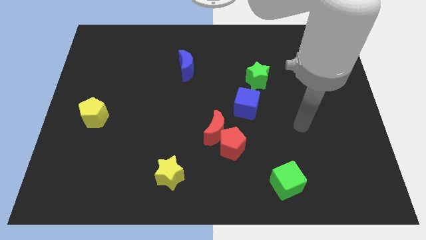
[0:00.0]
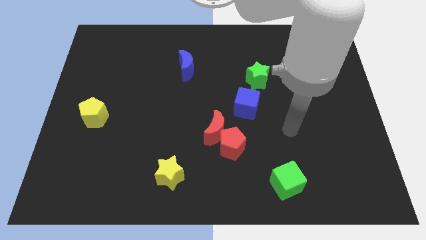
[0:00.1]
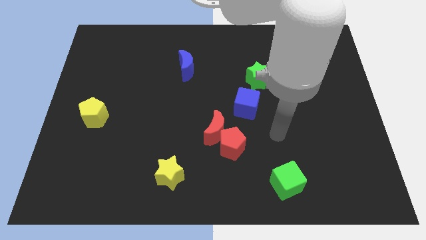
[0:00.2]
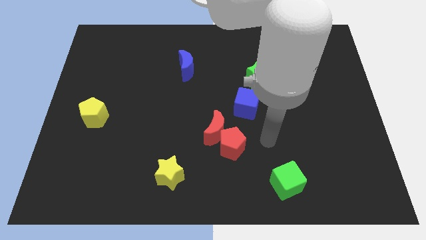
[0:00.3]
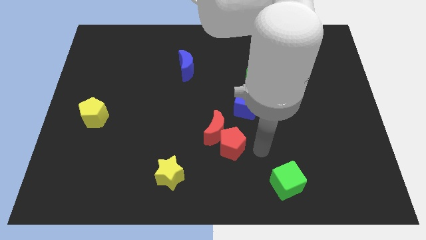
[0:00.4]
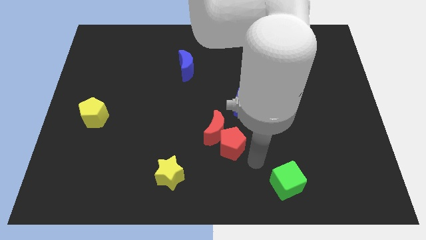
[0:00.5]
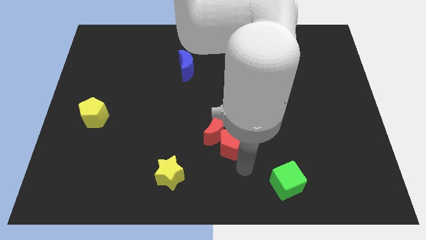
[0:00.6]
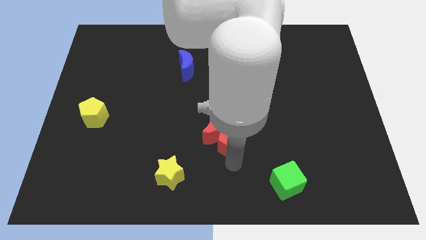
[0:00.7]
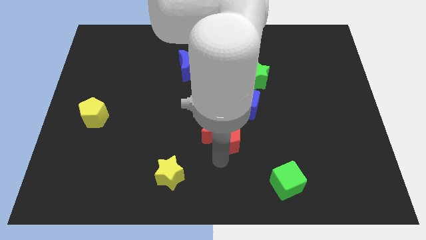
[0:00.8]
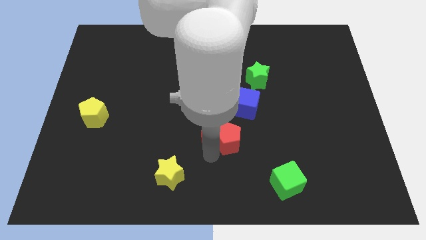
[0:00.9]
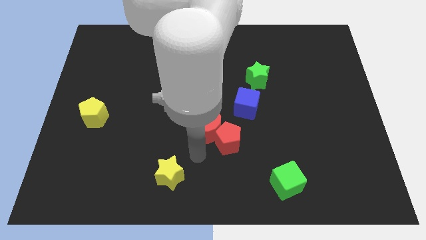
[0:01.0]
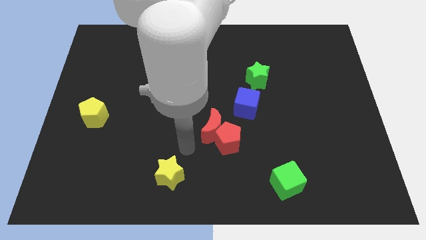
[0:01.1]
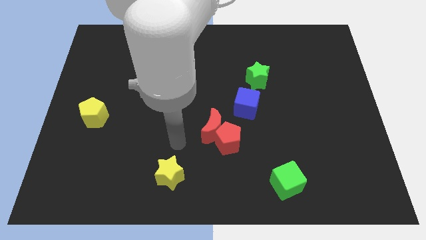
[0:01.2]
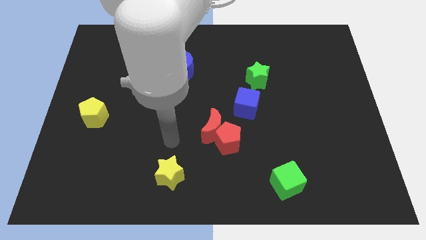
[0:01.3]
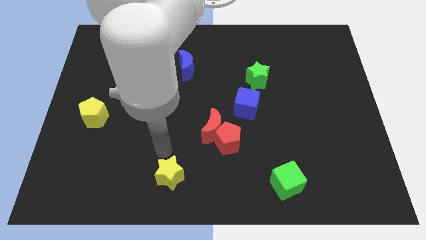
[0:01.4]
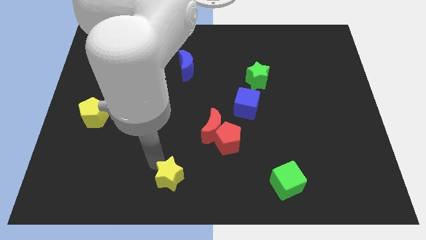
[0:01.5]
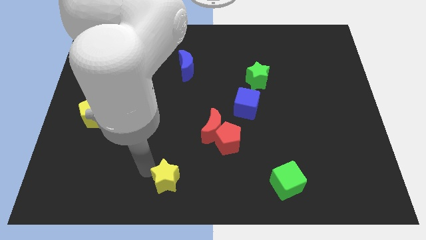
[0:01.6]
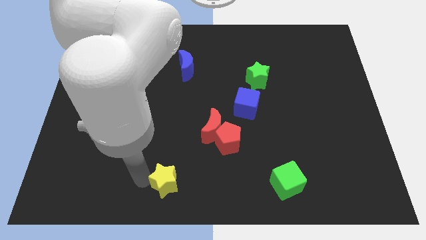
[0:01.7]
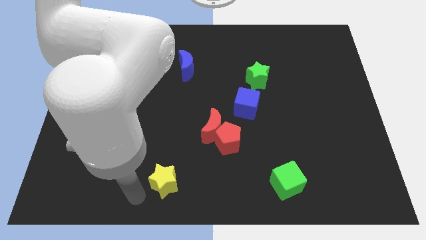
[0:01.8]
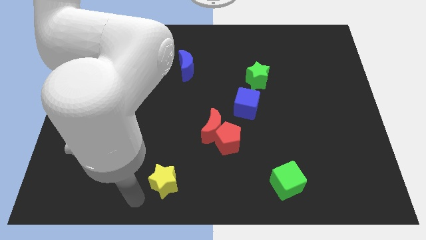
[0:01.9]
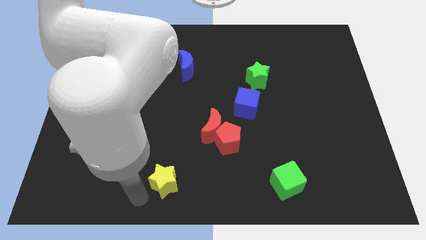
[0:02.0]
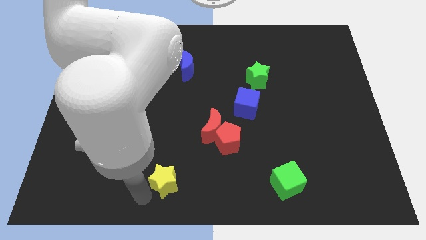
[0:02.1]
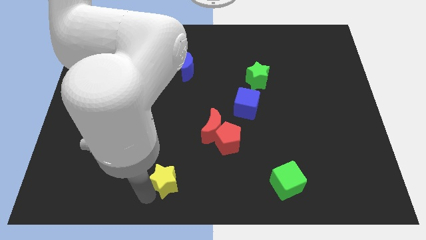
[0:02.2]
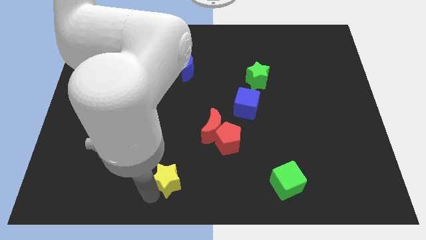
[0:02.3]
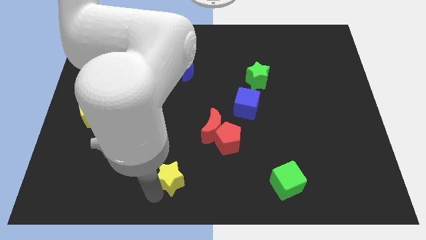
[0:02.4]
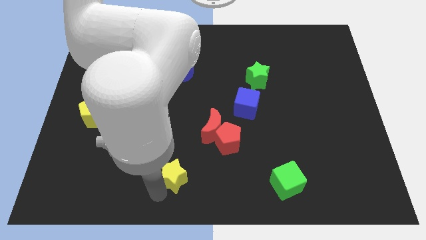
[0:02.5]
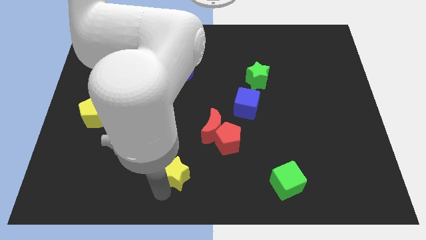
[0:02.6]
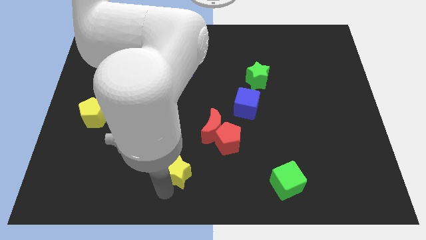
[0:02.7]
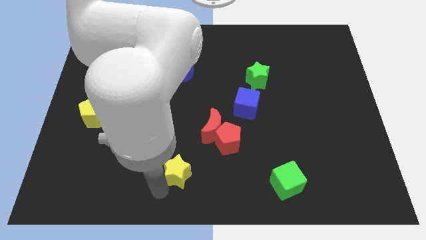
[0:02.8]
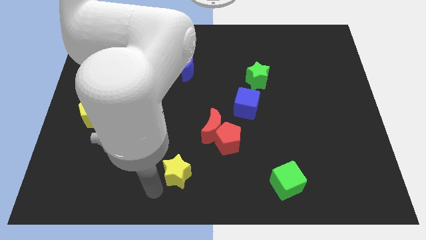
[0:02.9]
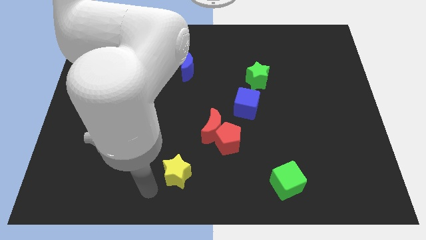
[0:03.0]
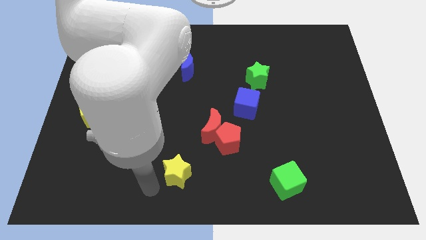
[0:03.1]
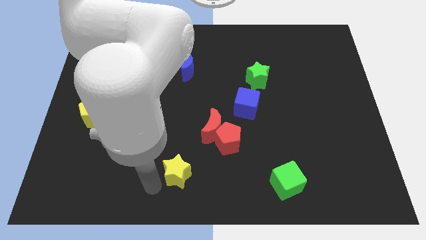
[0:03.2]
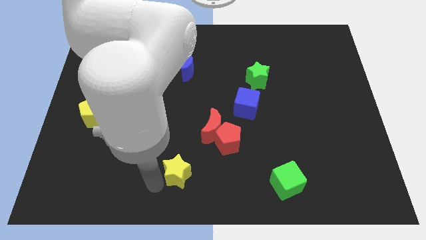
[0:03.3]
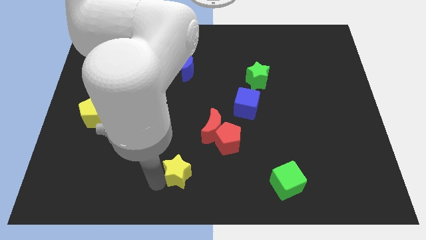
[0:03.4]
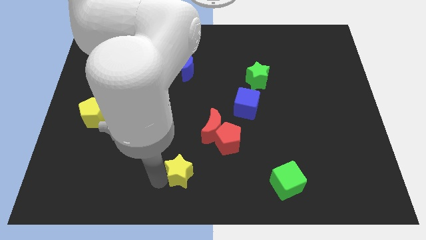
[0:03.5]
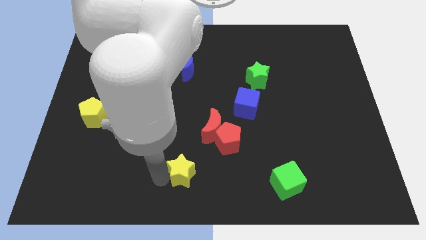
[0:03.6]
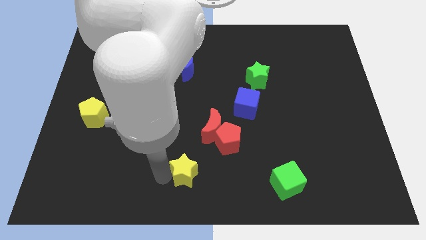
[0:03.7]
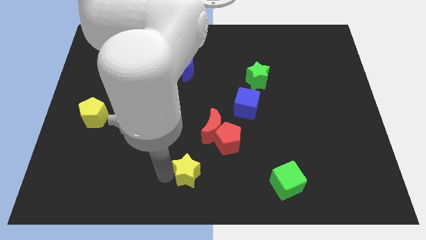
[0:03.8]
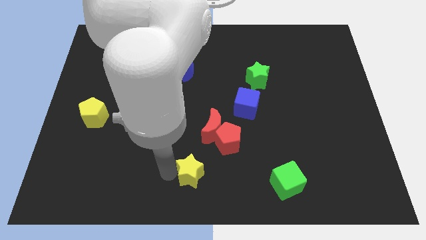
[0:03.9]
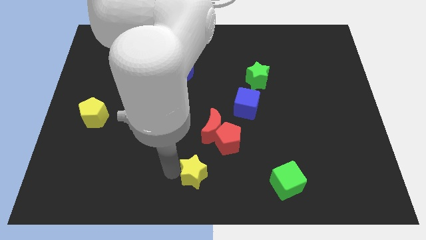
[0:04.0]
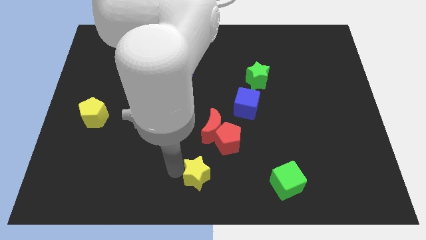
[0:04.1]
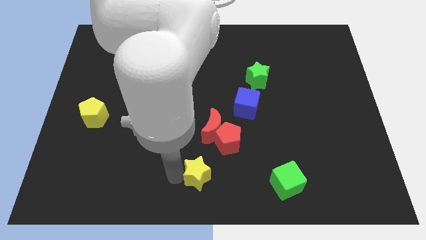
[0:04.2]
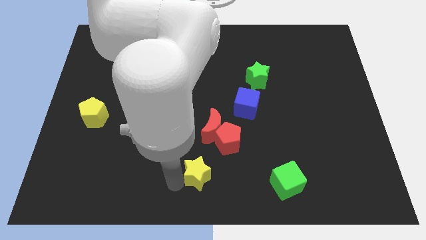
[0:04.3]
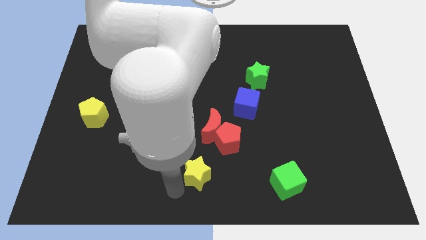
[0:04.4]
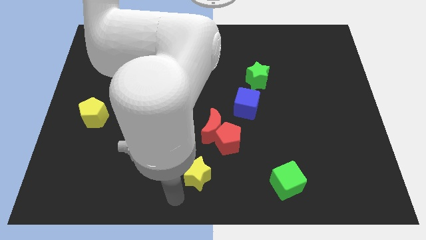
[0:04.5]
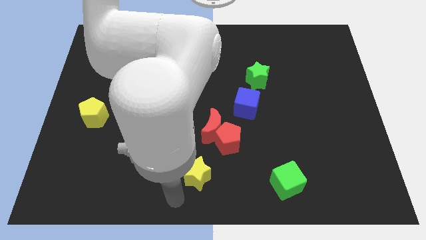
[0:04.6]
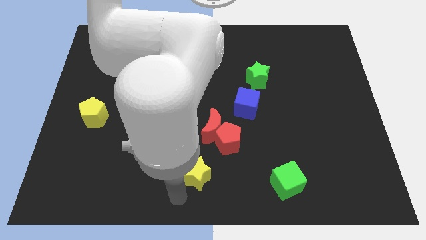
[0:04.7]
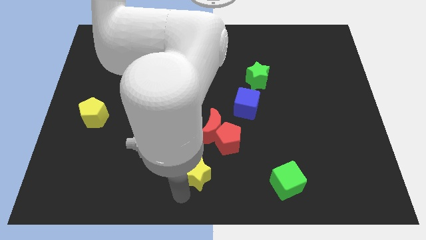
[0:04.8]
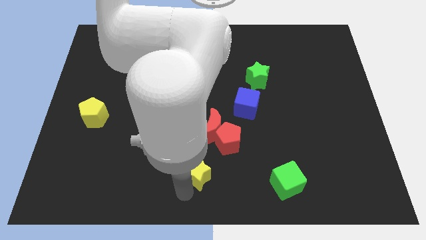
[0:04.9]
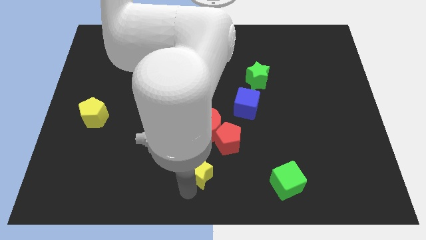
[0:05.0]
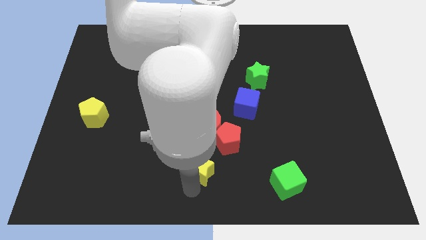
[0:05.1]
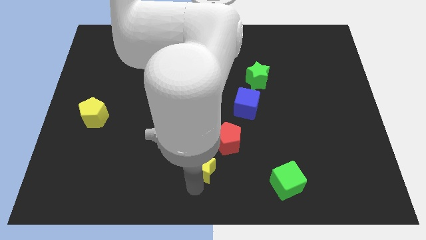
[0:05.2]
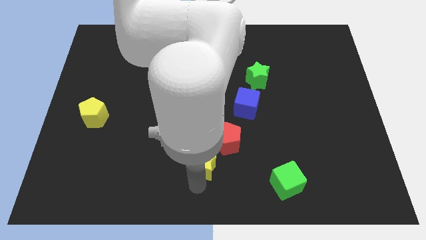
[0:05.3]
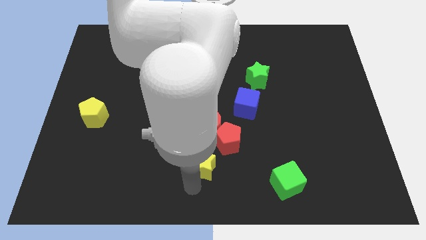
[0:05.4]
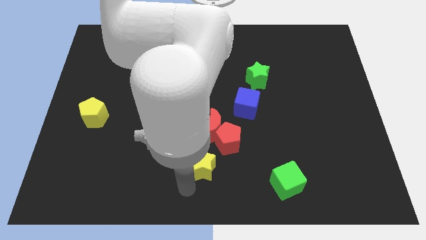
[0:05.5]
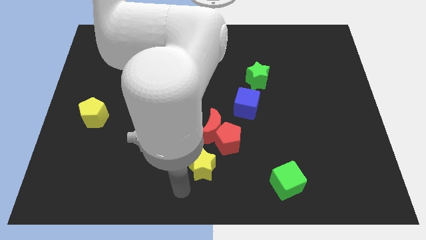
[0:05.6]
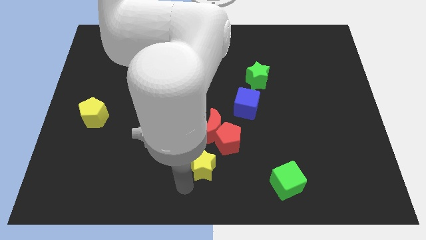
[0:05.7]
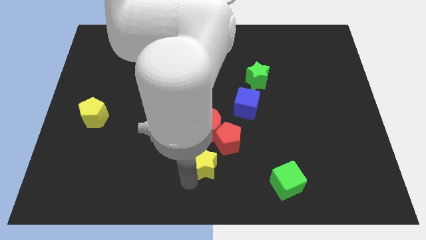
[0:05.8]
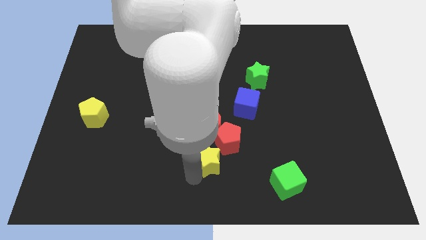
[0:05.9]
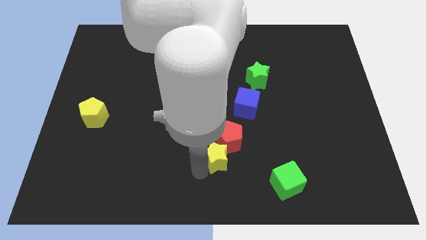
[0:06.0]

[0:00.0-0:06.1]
put the yellow star next to the red pentagon
